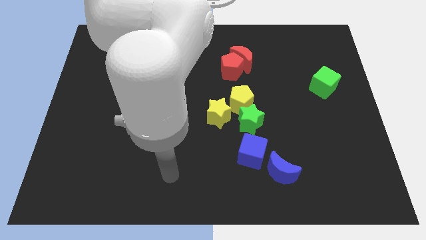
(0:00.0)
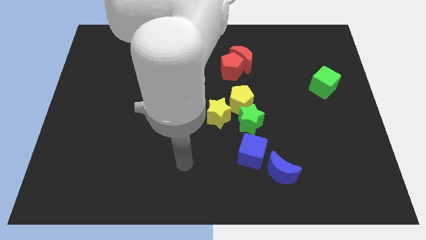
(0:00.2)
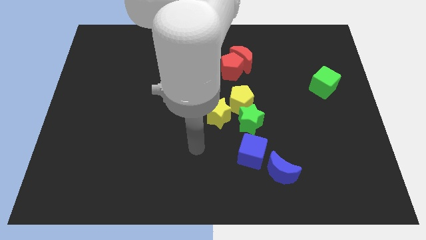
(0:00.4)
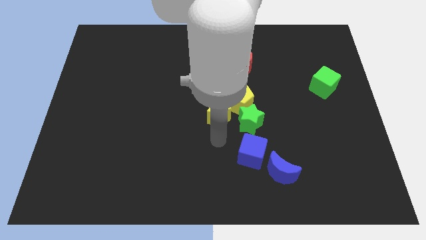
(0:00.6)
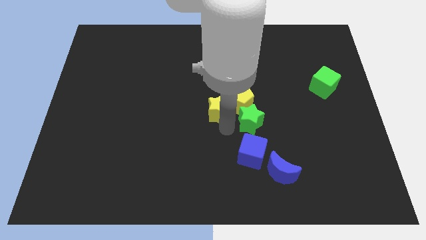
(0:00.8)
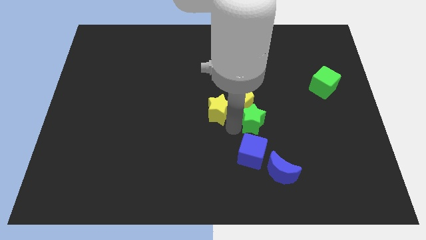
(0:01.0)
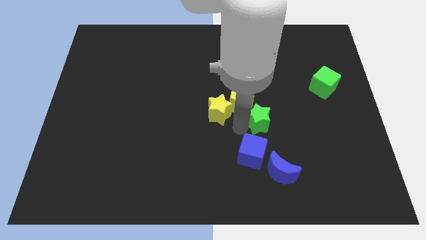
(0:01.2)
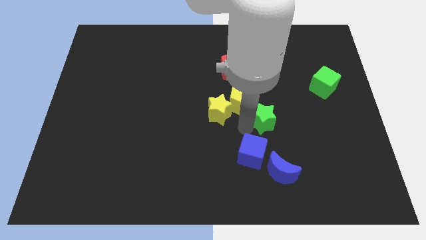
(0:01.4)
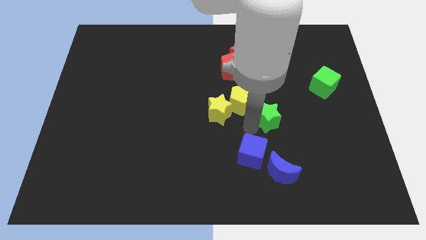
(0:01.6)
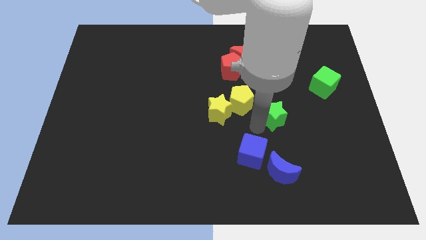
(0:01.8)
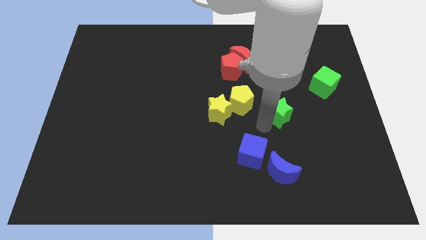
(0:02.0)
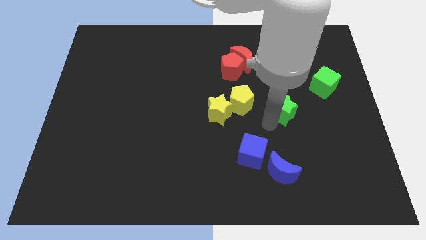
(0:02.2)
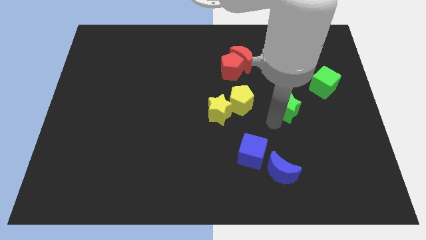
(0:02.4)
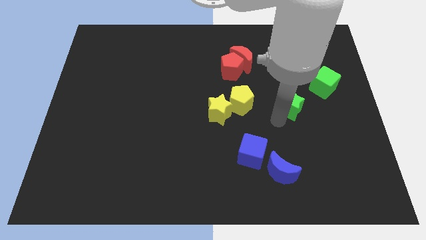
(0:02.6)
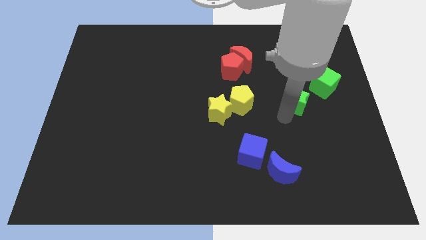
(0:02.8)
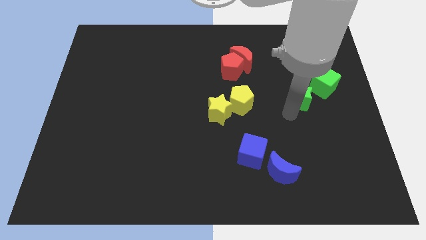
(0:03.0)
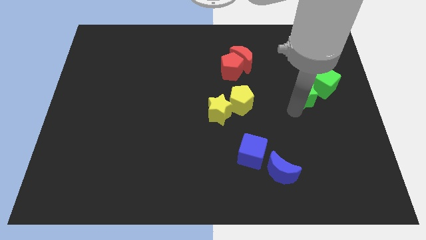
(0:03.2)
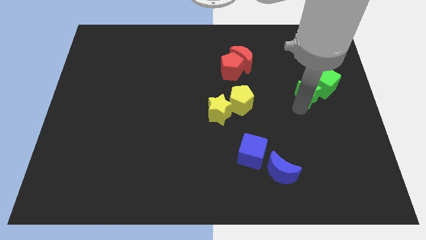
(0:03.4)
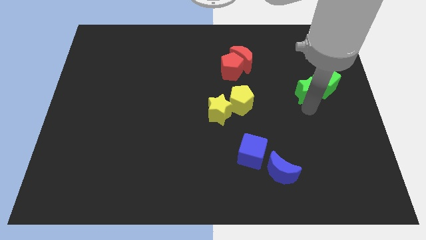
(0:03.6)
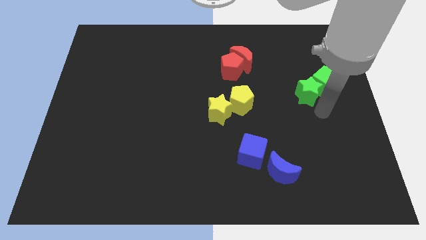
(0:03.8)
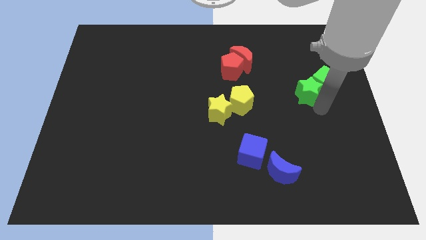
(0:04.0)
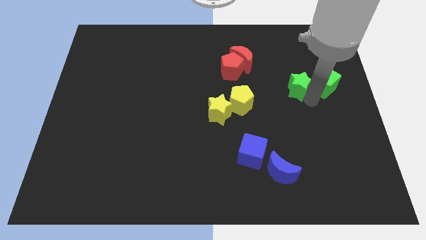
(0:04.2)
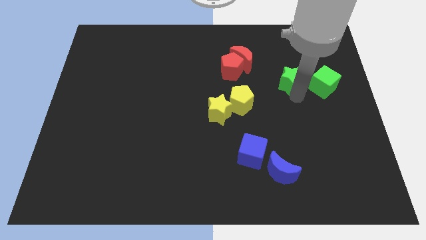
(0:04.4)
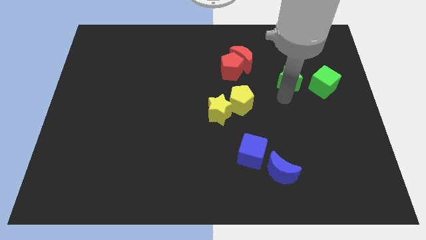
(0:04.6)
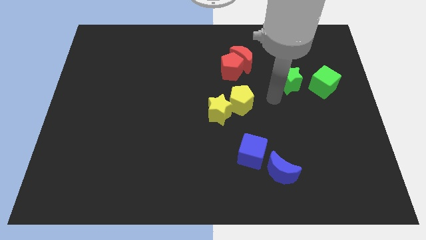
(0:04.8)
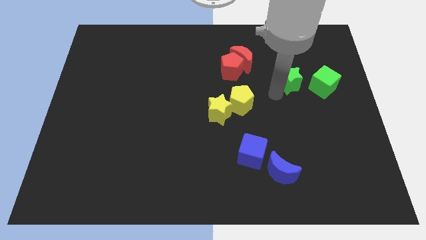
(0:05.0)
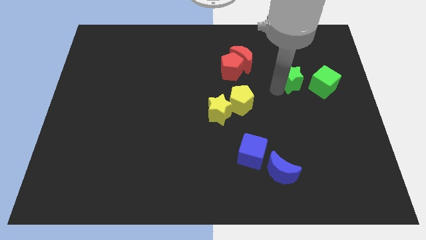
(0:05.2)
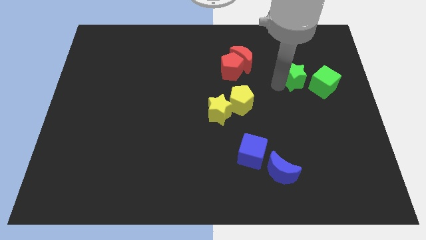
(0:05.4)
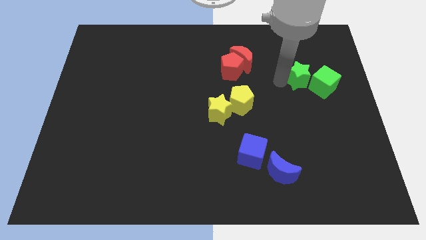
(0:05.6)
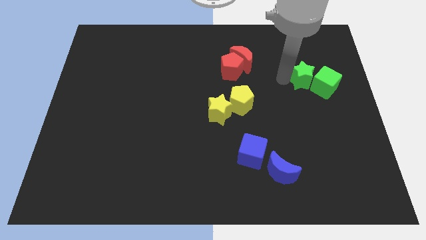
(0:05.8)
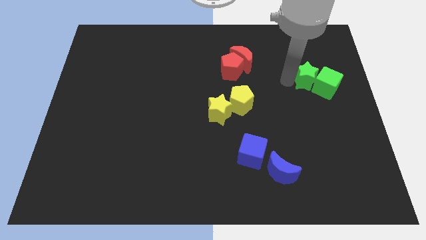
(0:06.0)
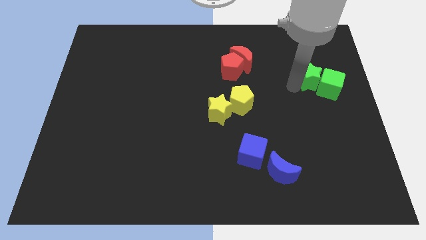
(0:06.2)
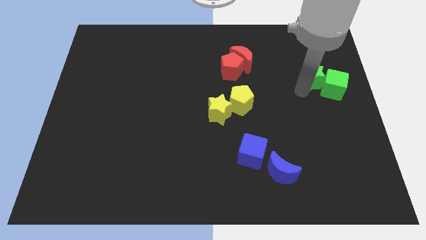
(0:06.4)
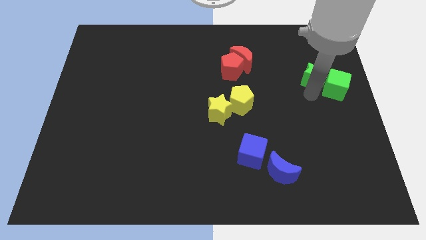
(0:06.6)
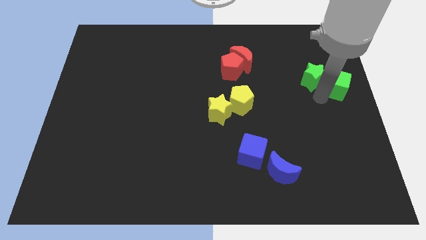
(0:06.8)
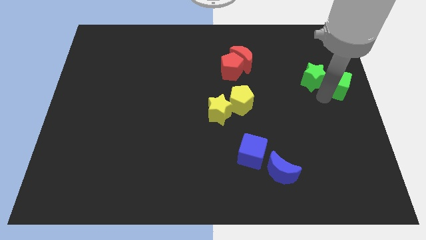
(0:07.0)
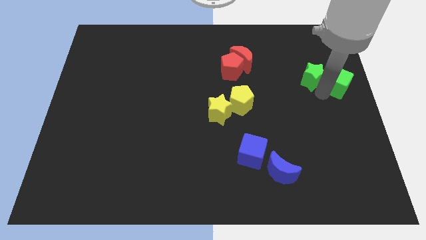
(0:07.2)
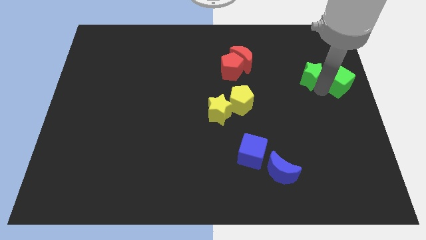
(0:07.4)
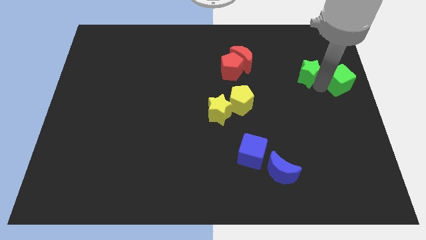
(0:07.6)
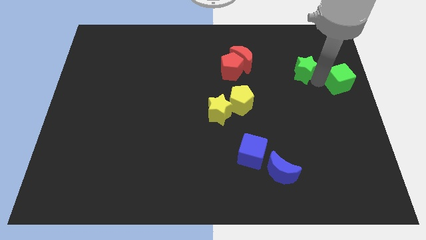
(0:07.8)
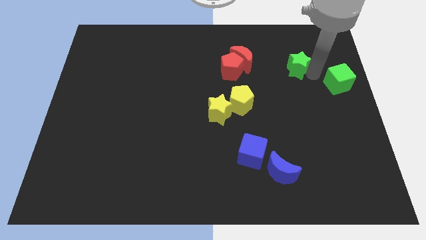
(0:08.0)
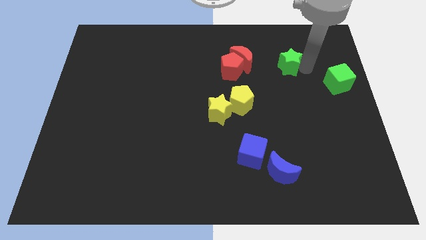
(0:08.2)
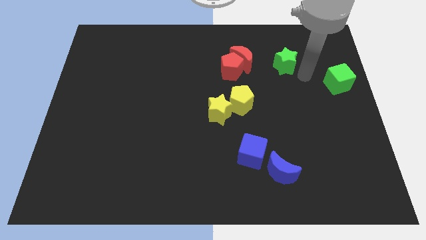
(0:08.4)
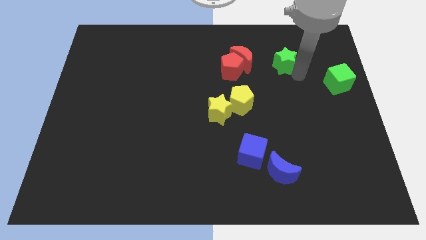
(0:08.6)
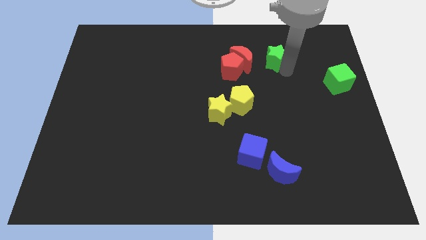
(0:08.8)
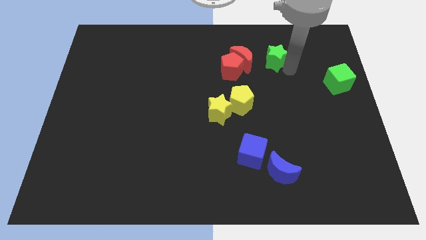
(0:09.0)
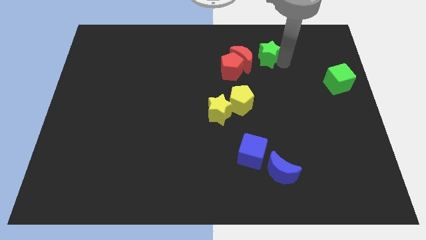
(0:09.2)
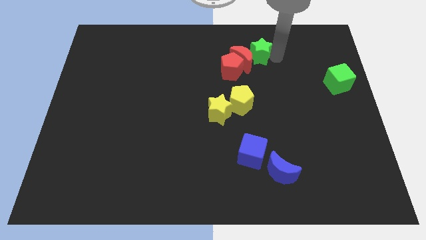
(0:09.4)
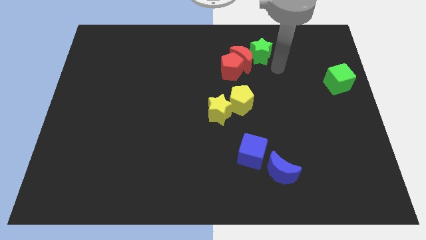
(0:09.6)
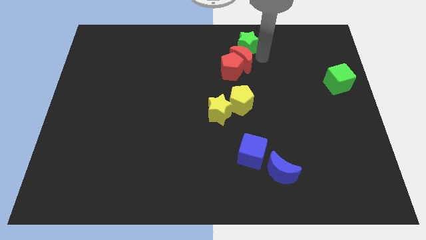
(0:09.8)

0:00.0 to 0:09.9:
put the green star to the top side

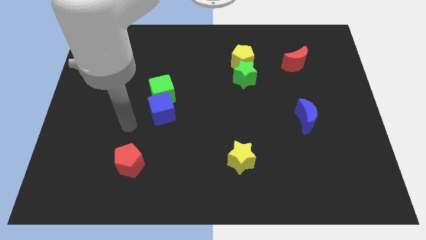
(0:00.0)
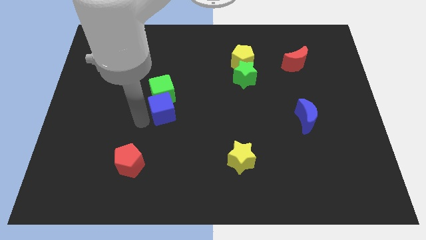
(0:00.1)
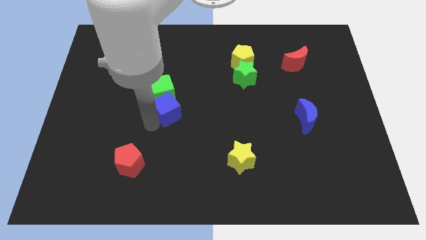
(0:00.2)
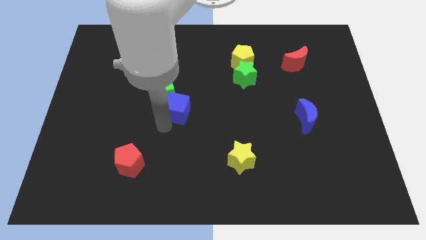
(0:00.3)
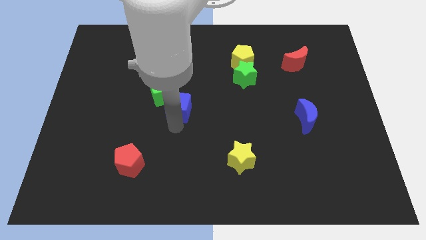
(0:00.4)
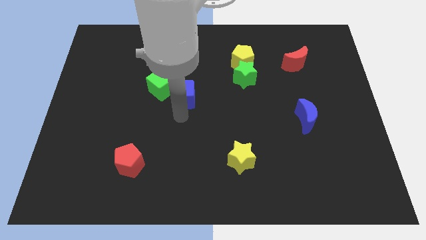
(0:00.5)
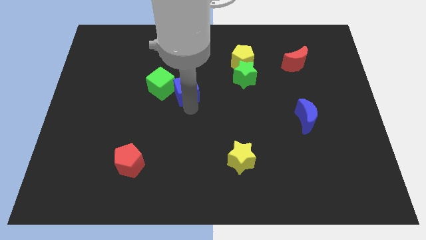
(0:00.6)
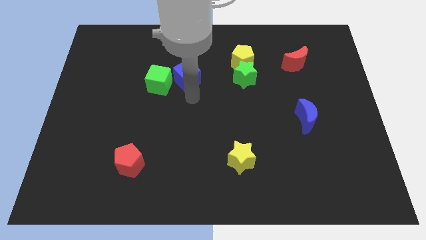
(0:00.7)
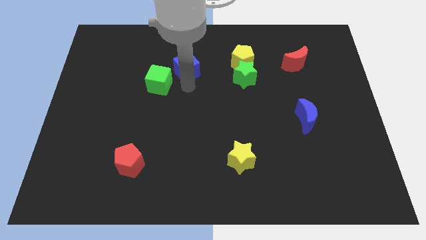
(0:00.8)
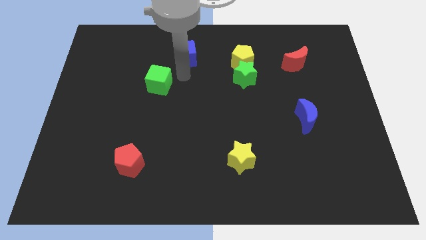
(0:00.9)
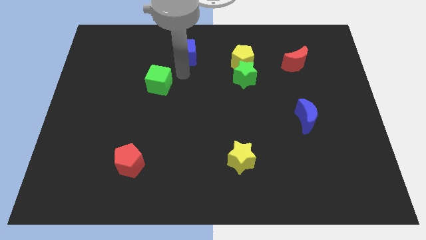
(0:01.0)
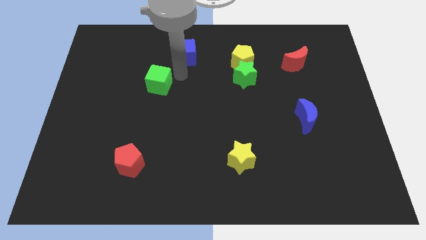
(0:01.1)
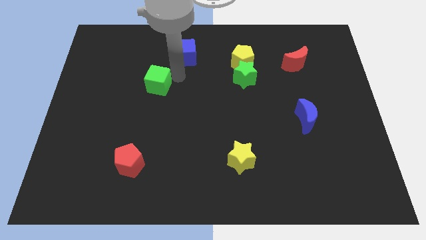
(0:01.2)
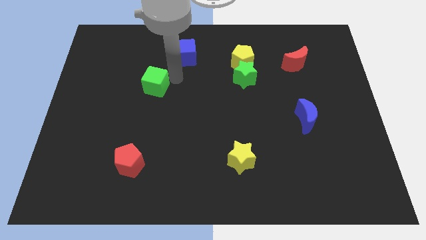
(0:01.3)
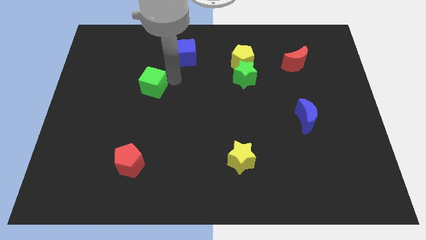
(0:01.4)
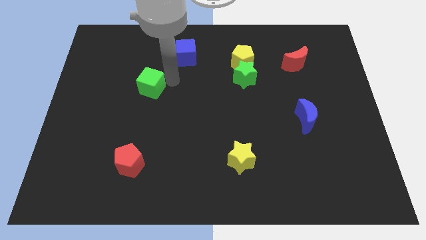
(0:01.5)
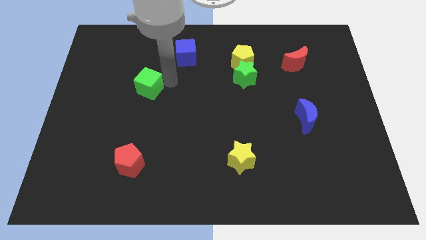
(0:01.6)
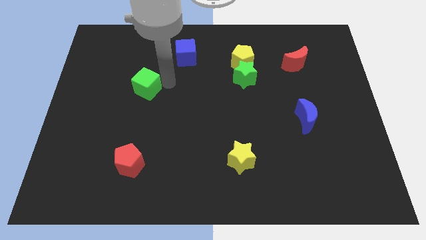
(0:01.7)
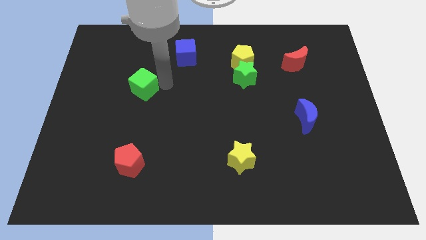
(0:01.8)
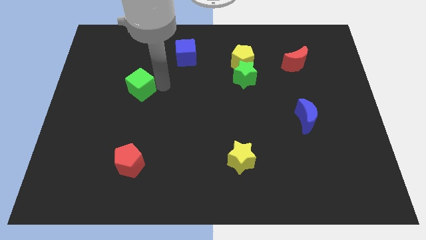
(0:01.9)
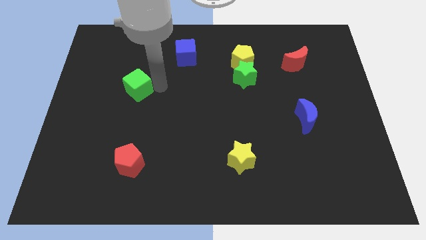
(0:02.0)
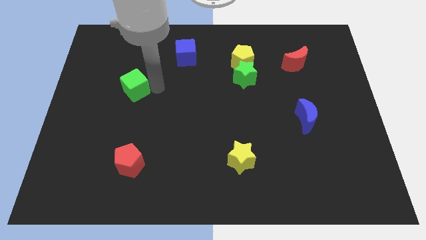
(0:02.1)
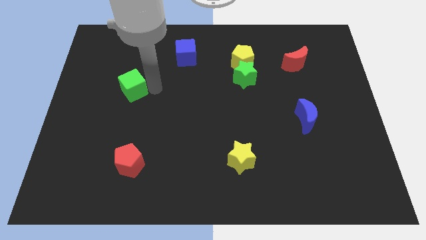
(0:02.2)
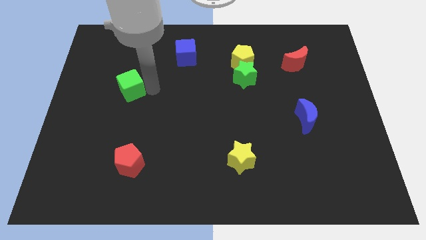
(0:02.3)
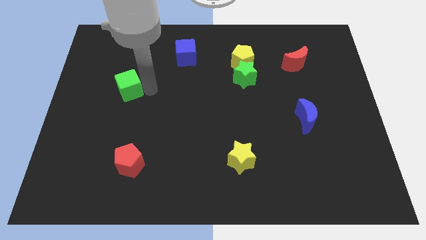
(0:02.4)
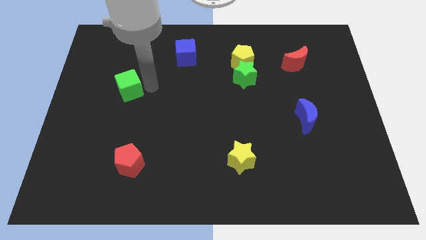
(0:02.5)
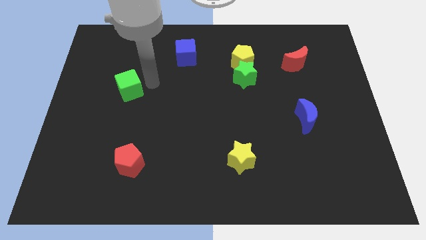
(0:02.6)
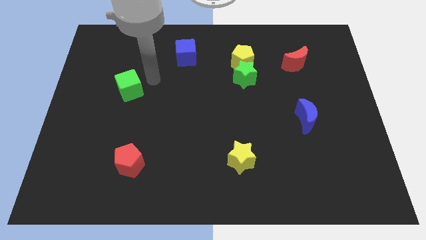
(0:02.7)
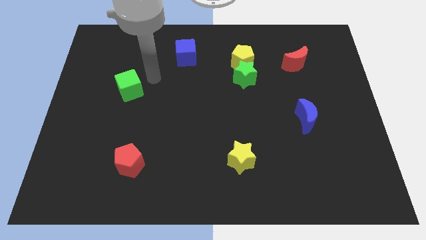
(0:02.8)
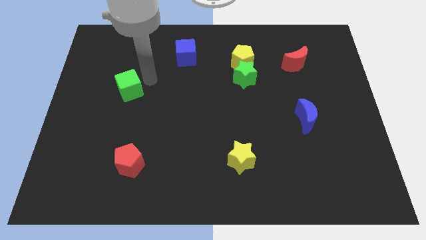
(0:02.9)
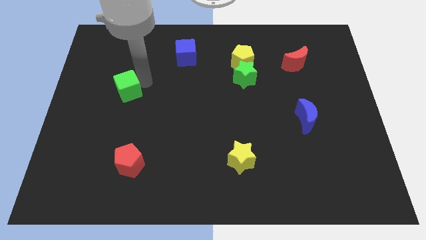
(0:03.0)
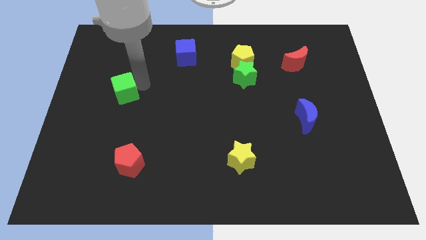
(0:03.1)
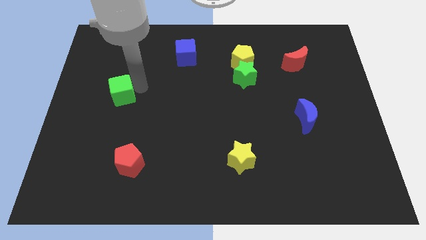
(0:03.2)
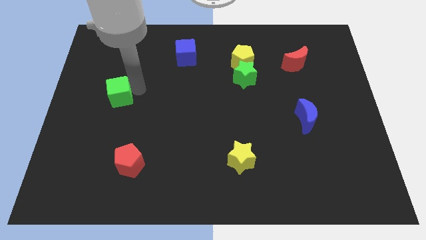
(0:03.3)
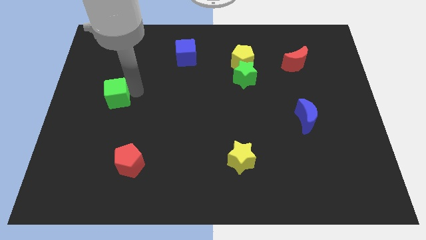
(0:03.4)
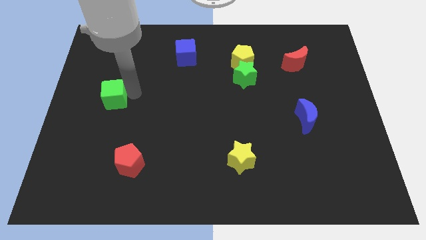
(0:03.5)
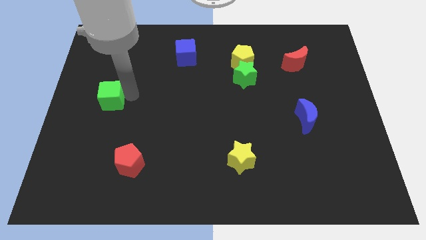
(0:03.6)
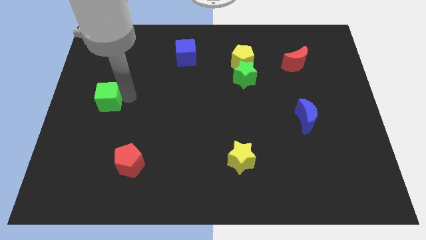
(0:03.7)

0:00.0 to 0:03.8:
push the green cube to the left side
